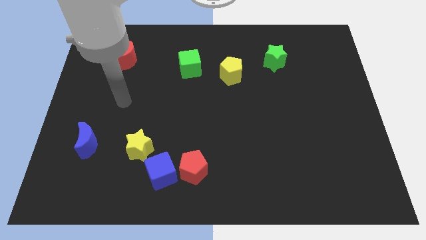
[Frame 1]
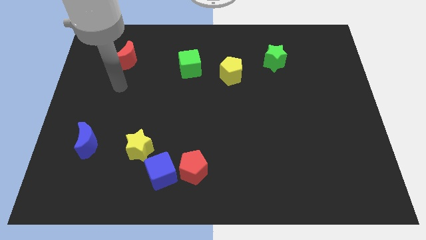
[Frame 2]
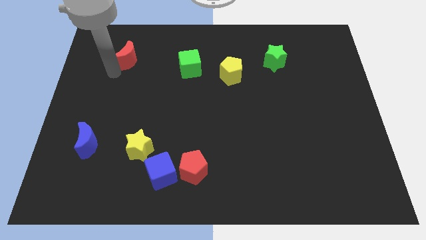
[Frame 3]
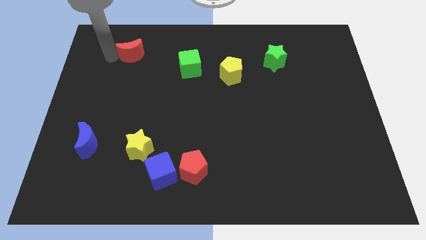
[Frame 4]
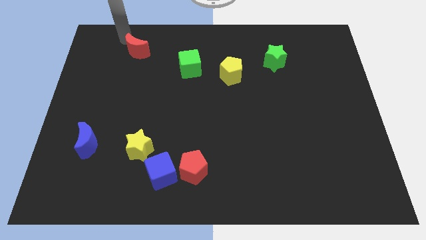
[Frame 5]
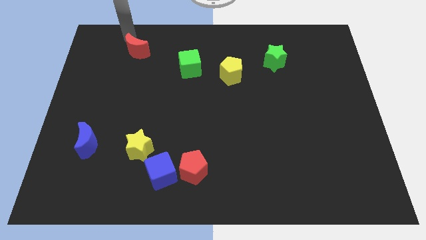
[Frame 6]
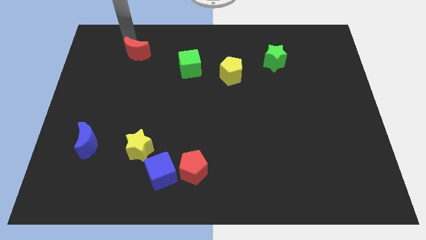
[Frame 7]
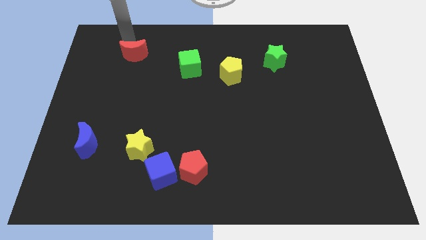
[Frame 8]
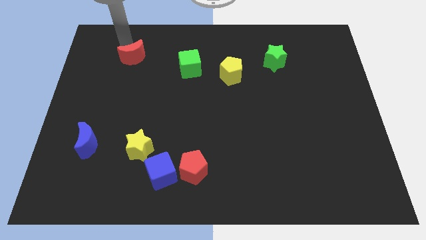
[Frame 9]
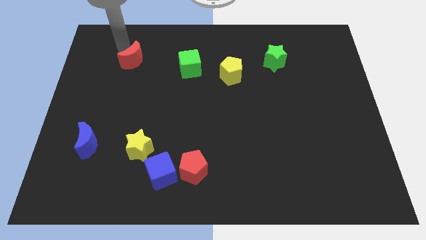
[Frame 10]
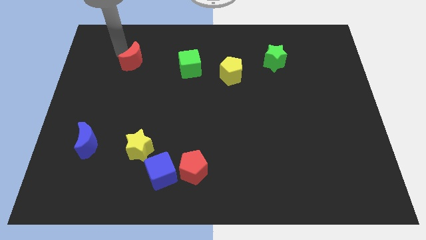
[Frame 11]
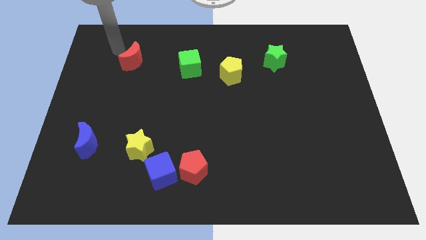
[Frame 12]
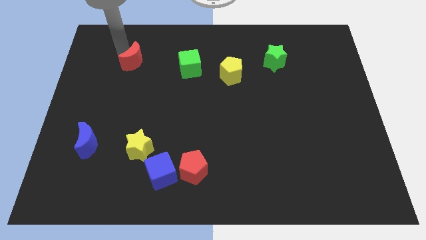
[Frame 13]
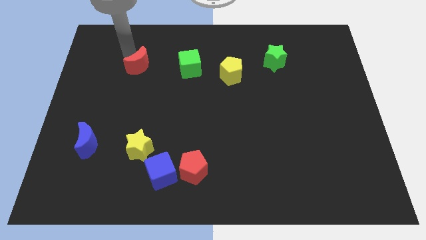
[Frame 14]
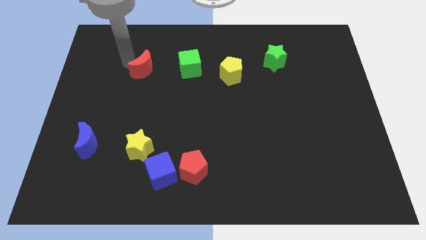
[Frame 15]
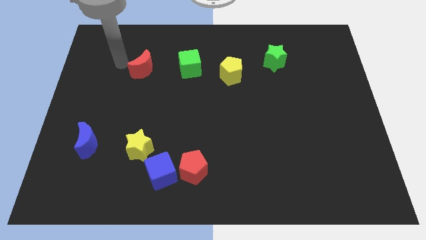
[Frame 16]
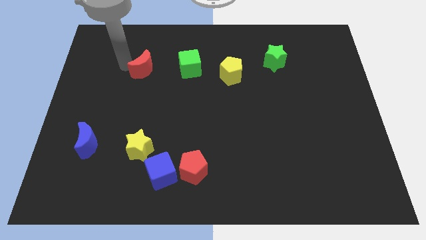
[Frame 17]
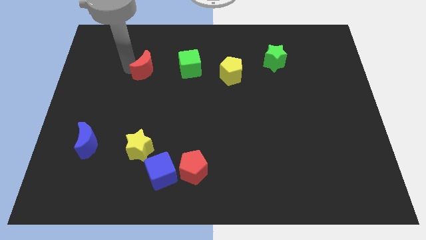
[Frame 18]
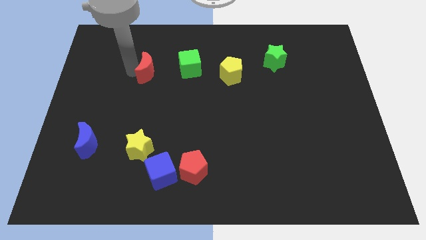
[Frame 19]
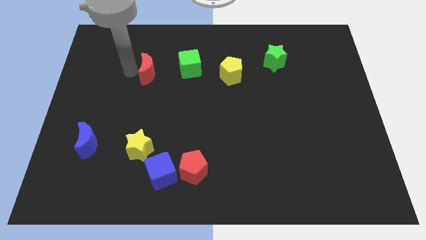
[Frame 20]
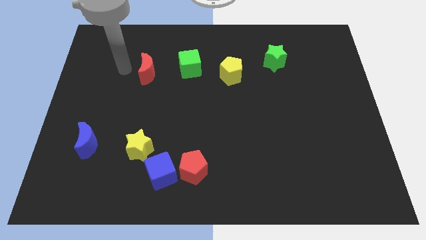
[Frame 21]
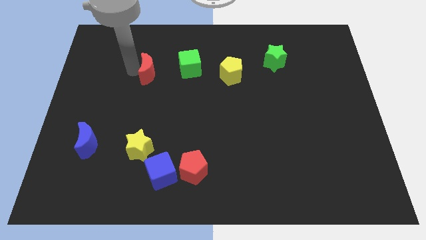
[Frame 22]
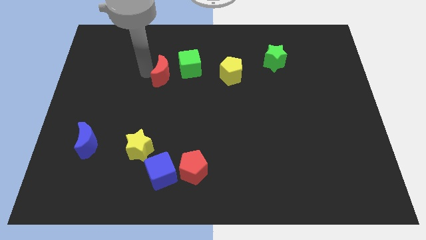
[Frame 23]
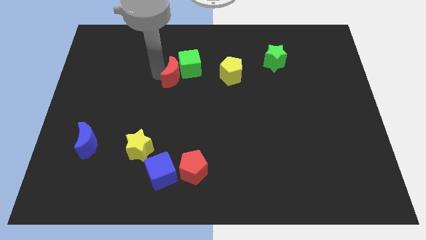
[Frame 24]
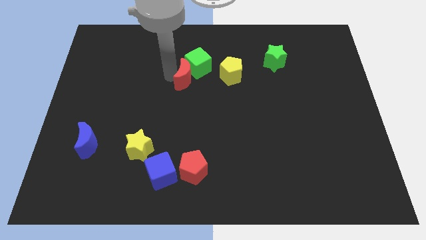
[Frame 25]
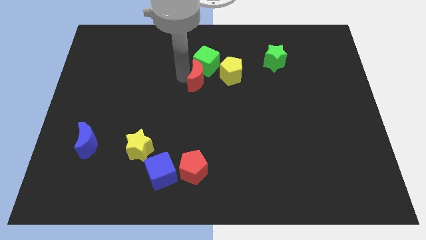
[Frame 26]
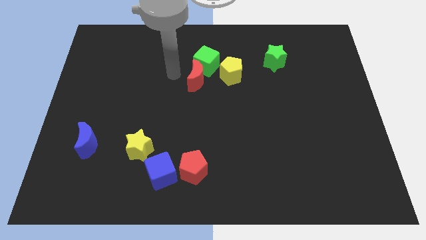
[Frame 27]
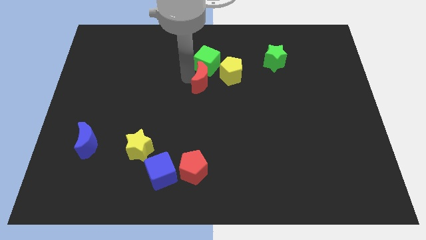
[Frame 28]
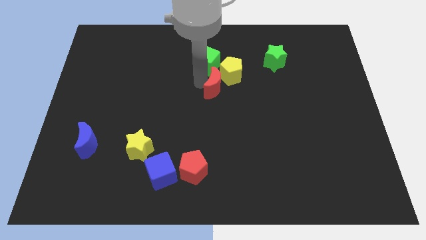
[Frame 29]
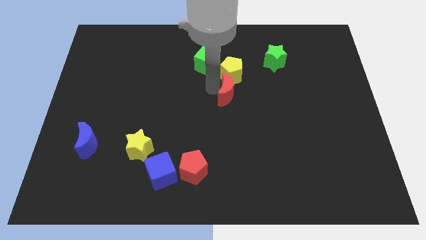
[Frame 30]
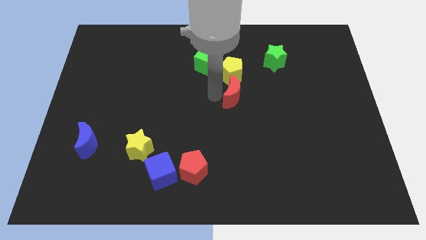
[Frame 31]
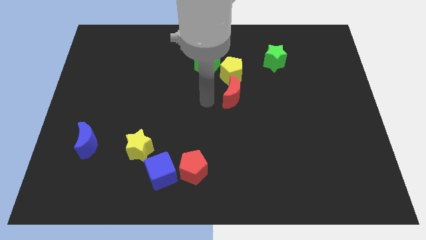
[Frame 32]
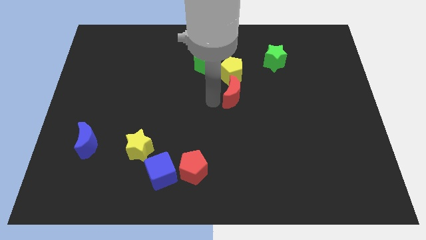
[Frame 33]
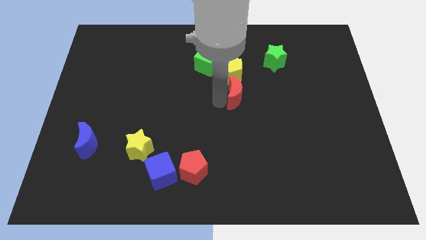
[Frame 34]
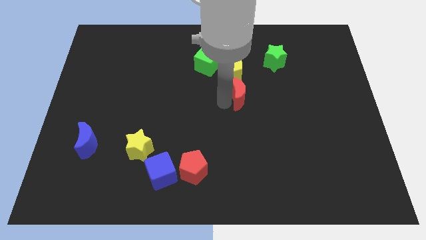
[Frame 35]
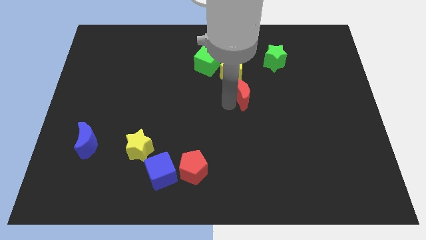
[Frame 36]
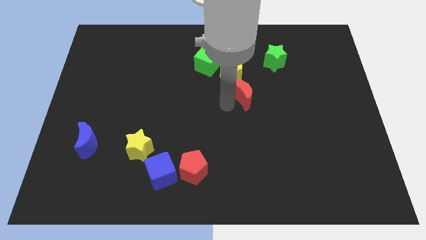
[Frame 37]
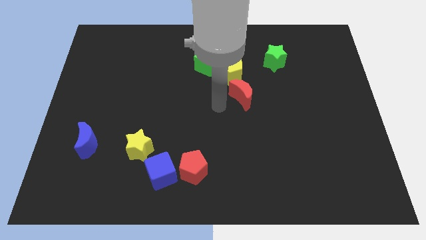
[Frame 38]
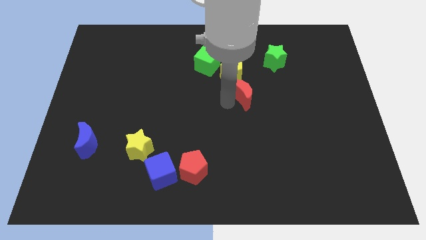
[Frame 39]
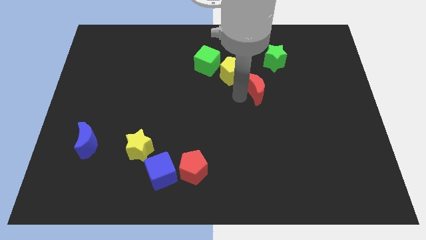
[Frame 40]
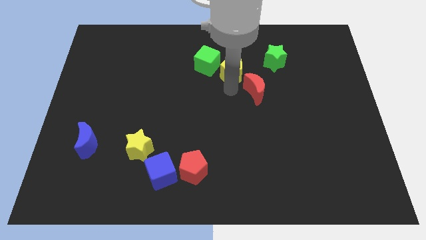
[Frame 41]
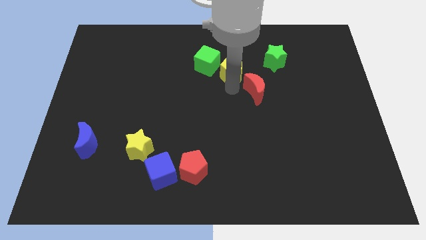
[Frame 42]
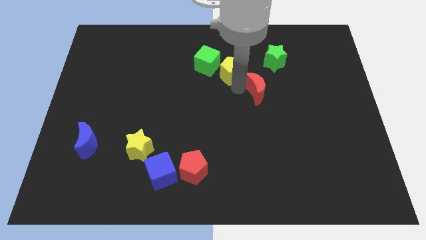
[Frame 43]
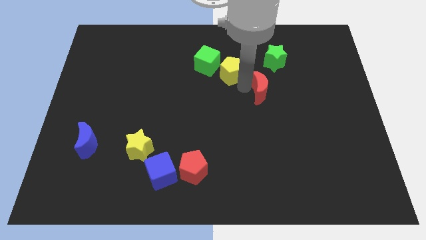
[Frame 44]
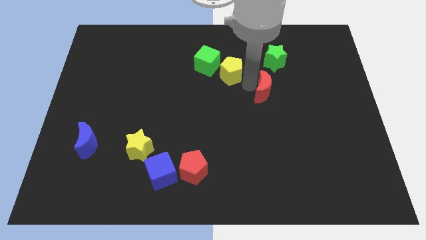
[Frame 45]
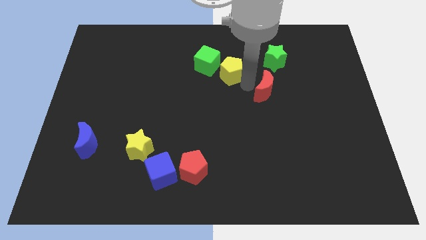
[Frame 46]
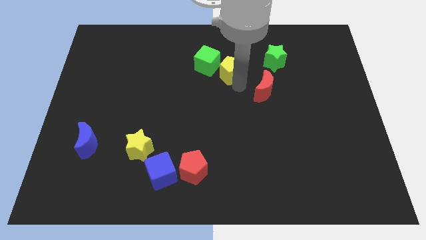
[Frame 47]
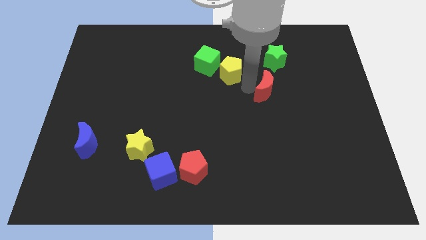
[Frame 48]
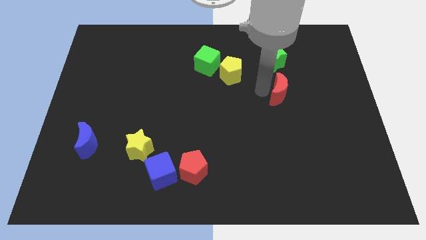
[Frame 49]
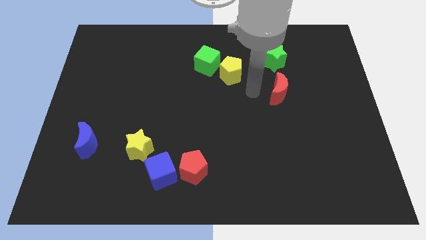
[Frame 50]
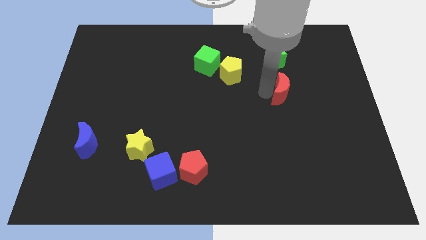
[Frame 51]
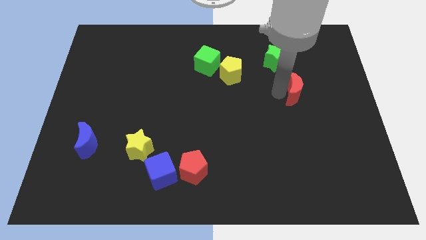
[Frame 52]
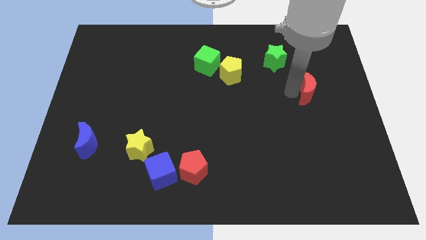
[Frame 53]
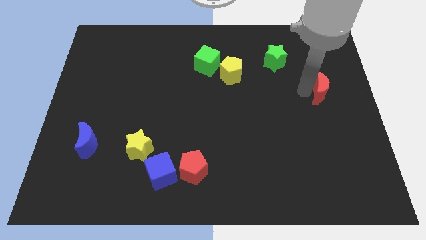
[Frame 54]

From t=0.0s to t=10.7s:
slide the red moon to the right side

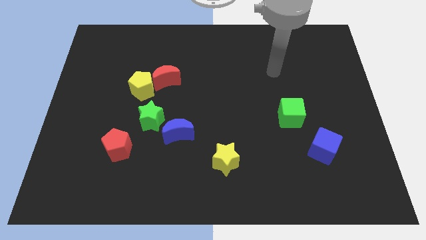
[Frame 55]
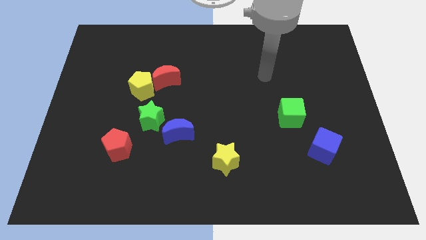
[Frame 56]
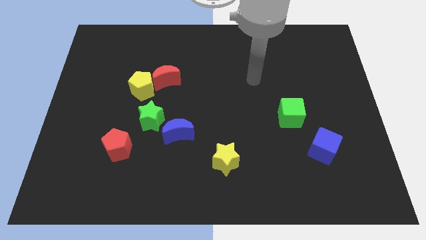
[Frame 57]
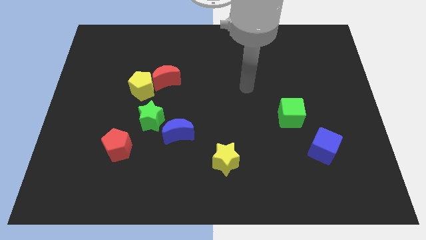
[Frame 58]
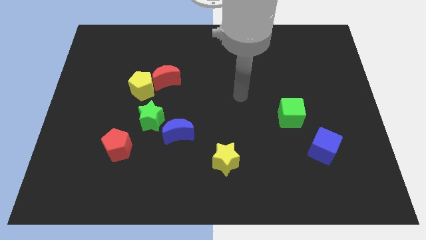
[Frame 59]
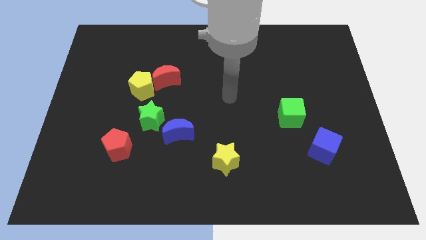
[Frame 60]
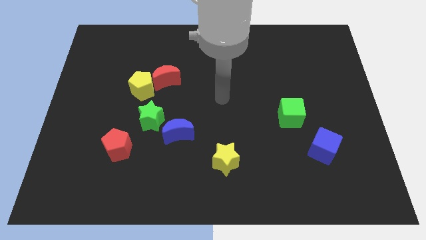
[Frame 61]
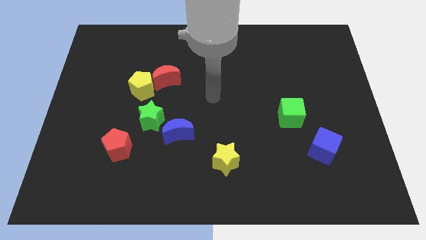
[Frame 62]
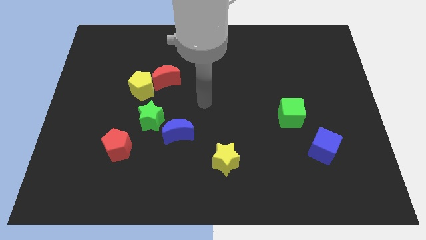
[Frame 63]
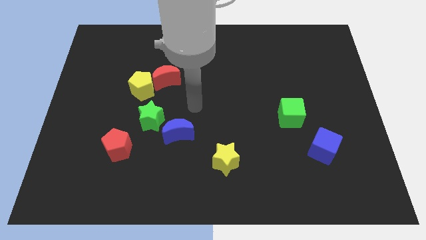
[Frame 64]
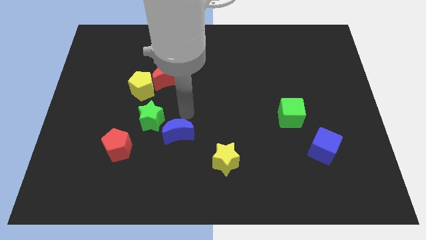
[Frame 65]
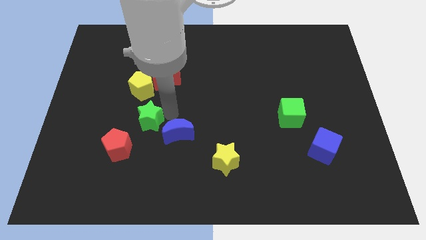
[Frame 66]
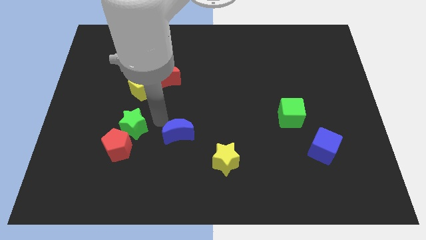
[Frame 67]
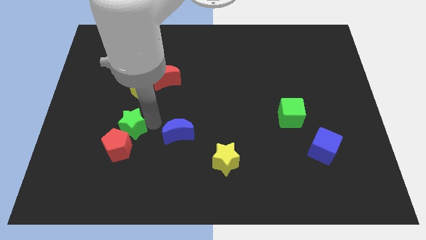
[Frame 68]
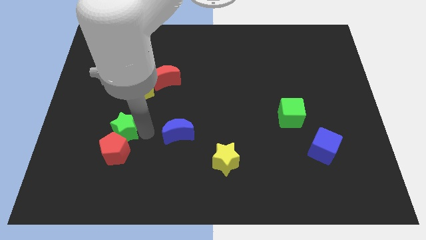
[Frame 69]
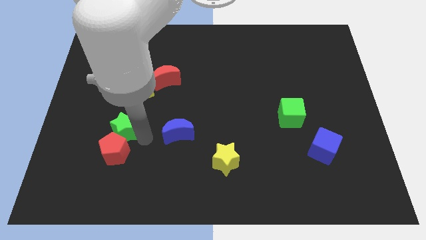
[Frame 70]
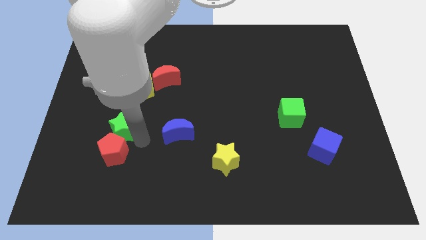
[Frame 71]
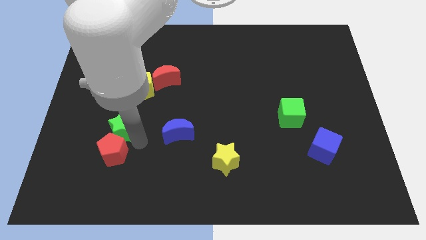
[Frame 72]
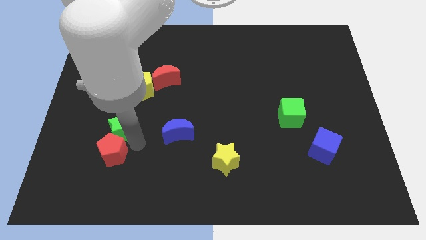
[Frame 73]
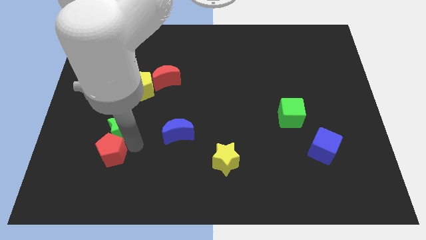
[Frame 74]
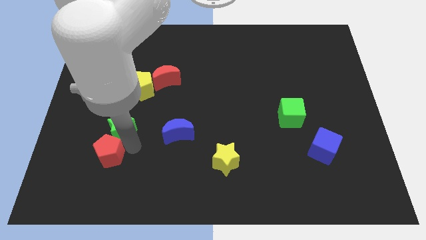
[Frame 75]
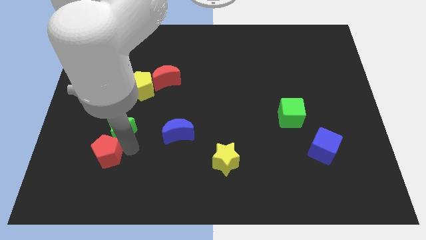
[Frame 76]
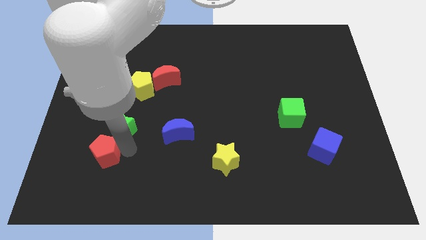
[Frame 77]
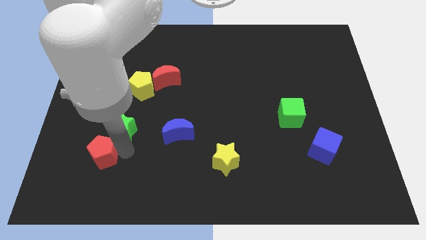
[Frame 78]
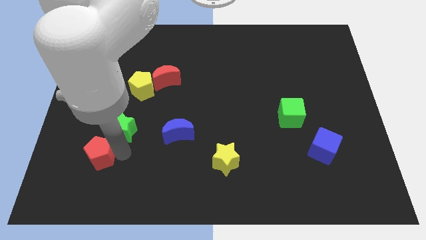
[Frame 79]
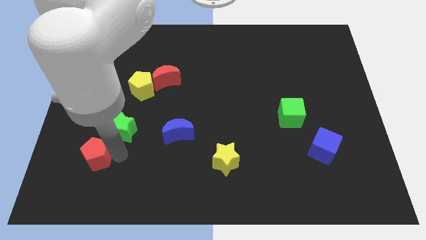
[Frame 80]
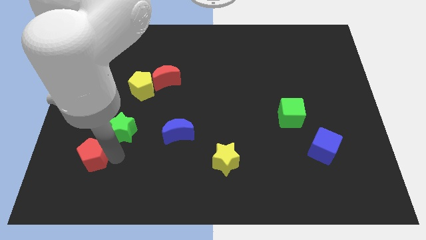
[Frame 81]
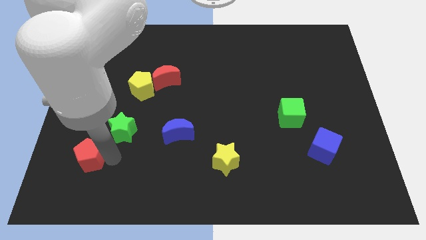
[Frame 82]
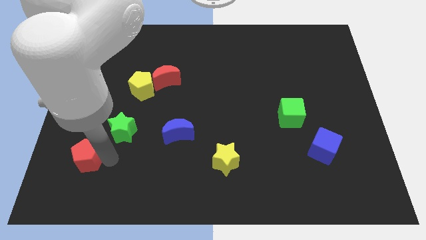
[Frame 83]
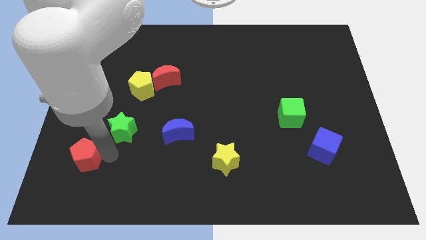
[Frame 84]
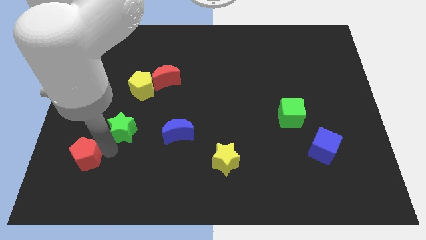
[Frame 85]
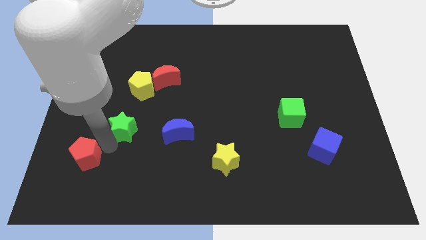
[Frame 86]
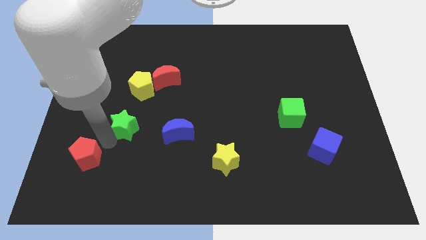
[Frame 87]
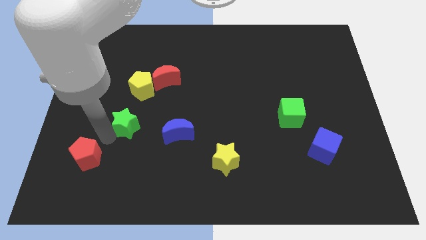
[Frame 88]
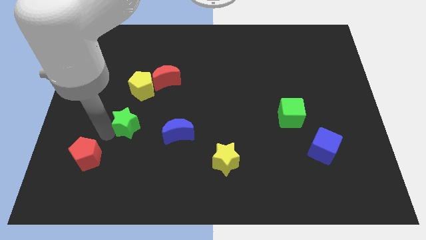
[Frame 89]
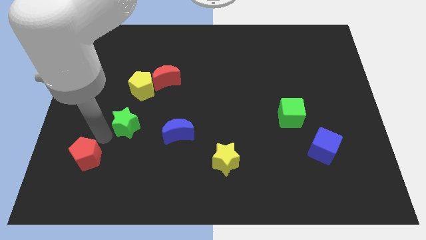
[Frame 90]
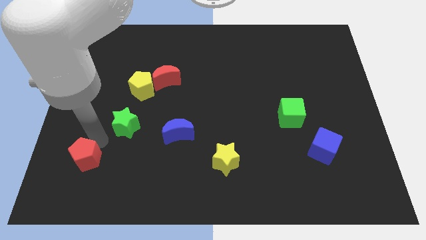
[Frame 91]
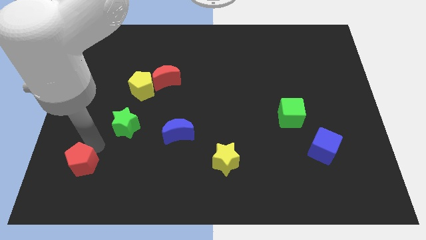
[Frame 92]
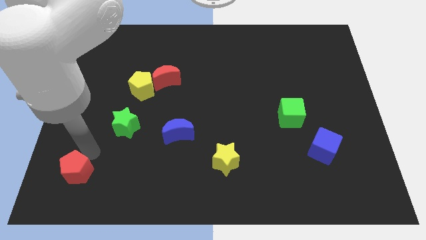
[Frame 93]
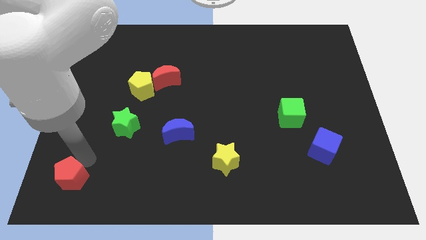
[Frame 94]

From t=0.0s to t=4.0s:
push the red pentagon to the bottom left of the board
